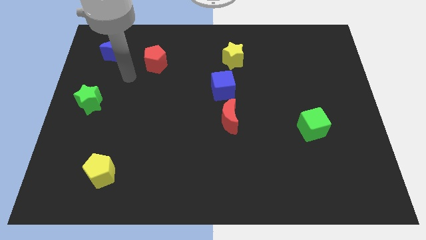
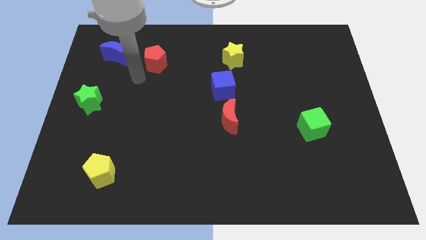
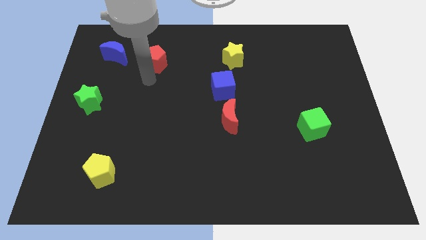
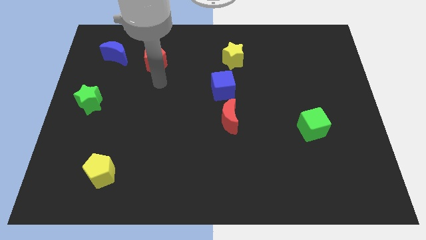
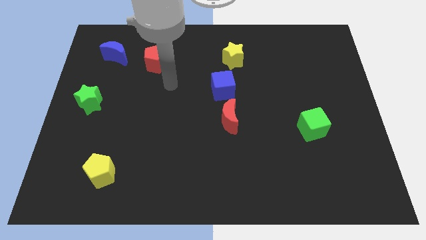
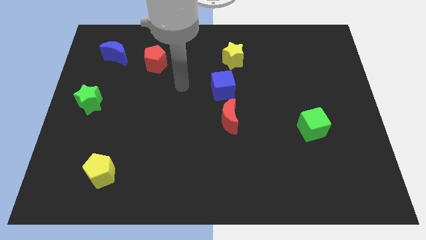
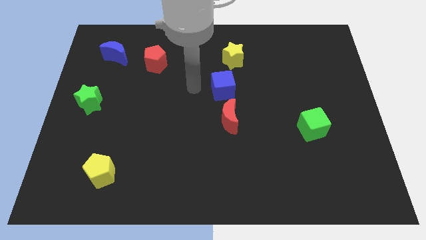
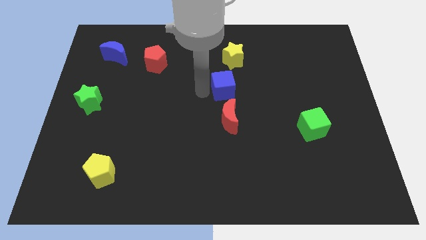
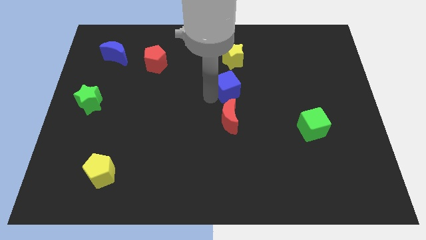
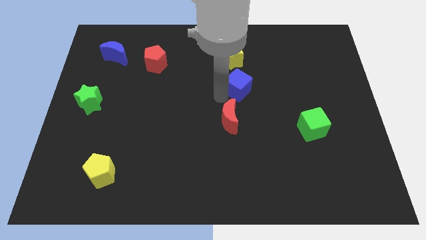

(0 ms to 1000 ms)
pull the red moon apart from the blue cube

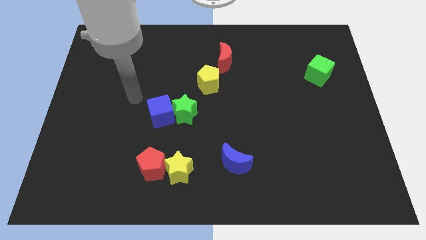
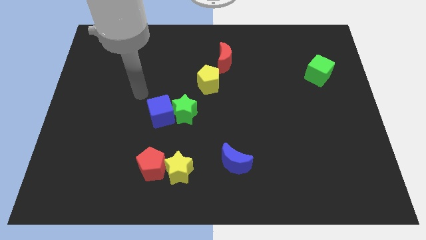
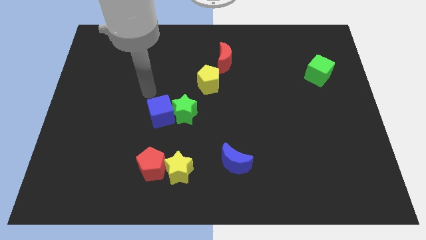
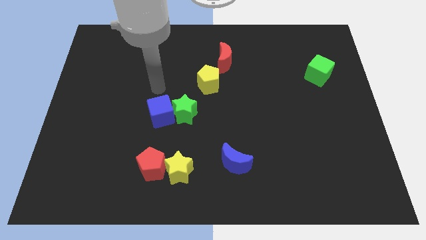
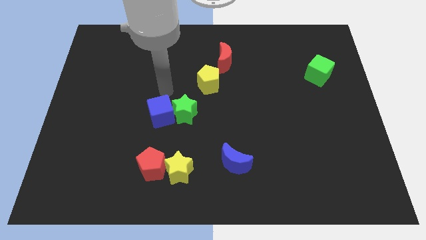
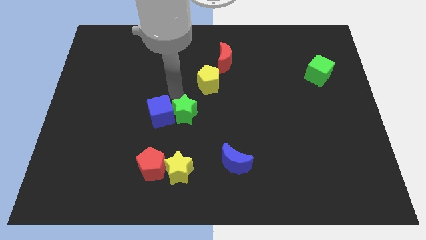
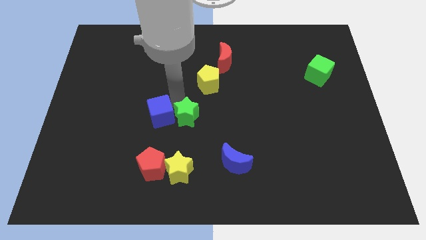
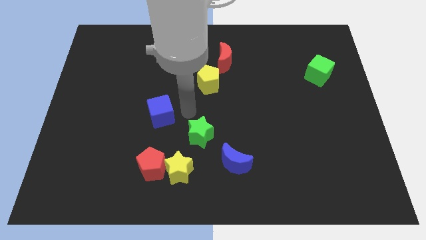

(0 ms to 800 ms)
move the blue cube away from the green star

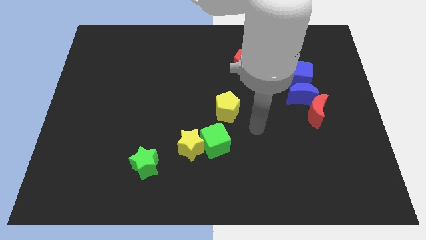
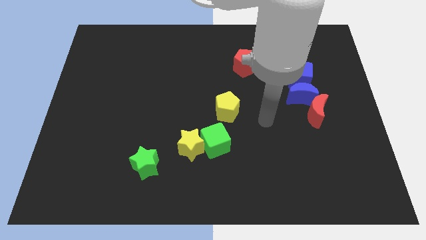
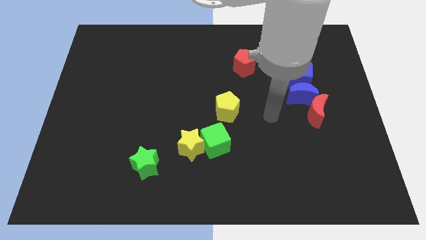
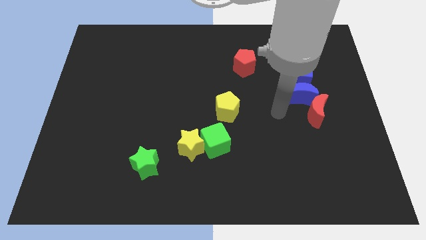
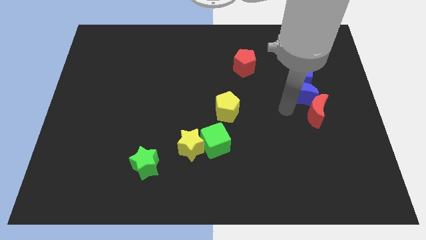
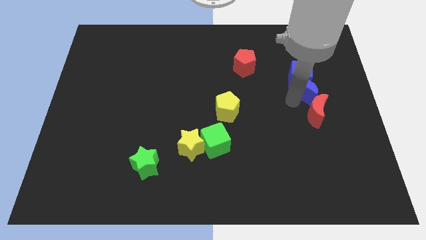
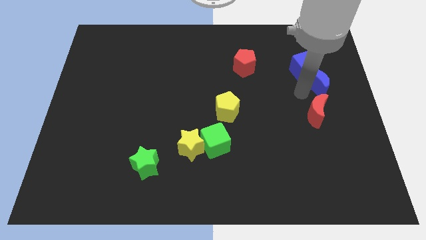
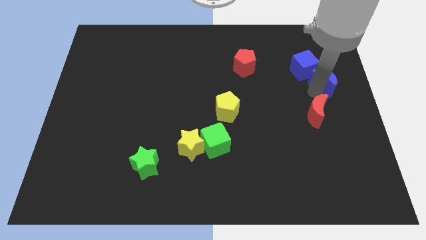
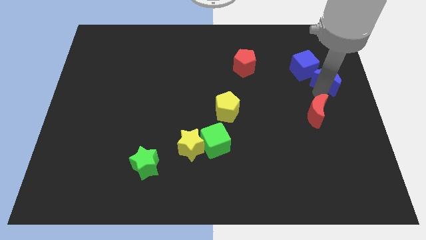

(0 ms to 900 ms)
separate the red moon from the blue moon

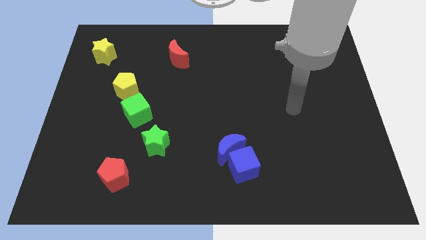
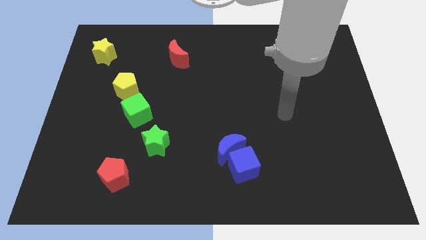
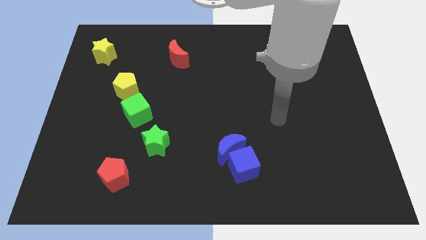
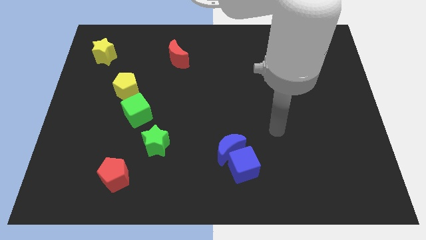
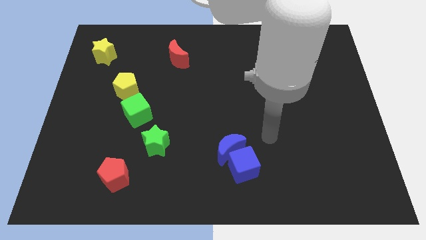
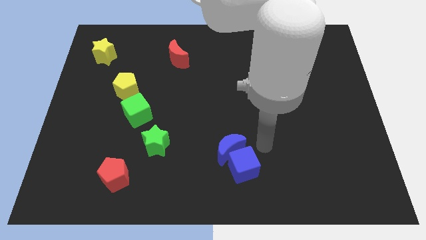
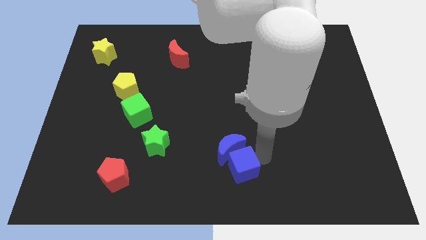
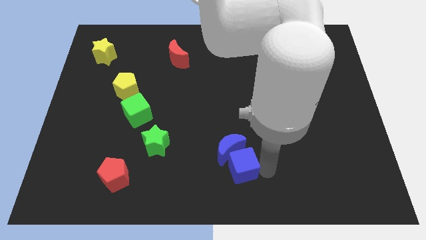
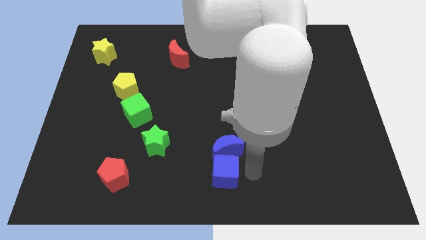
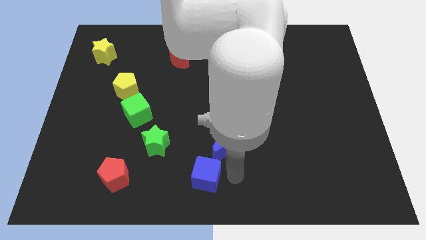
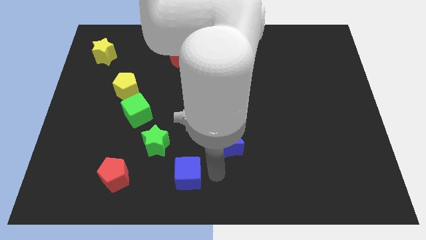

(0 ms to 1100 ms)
pull the blue moon apart from the blue cube

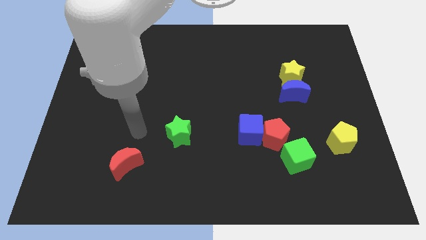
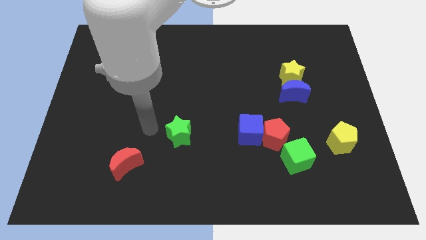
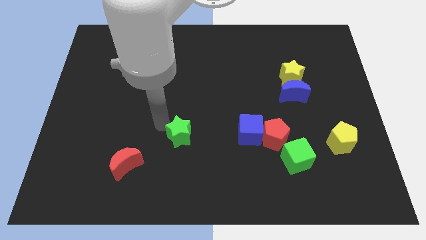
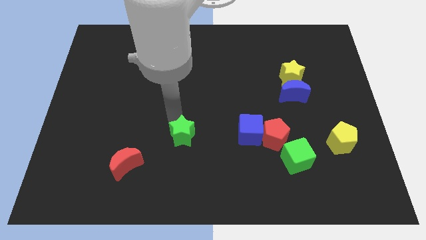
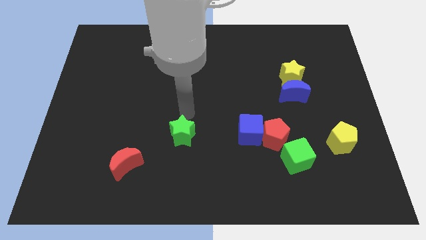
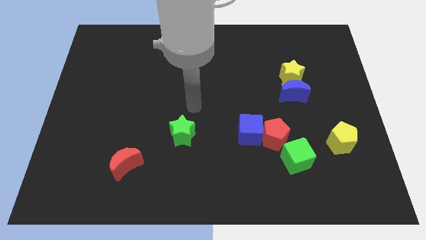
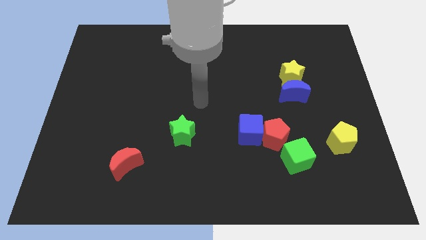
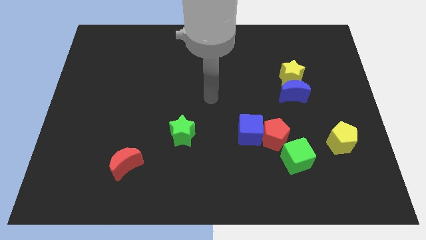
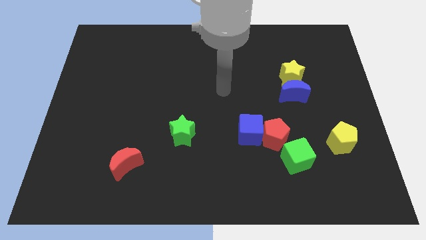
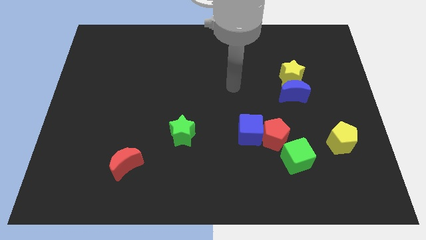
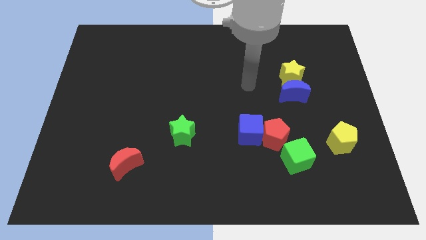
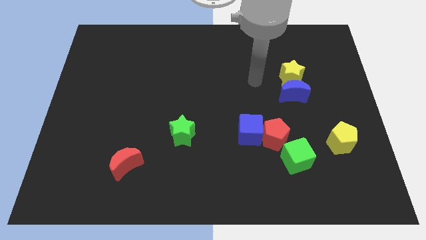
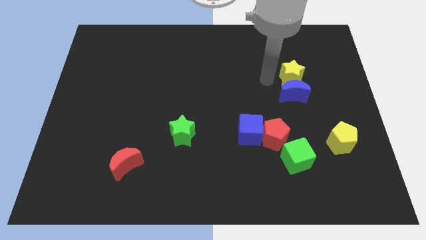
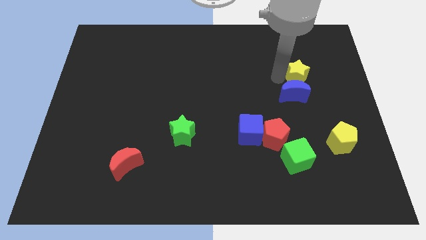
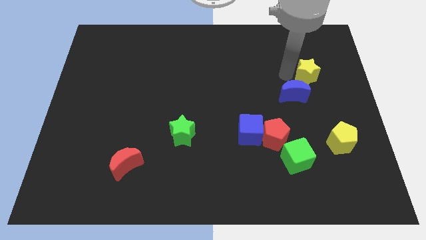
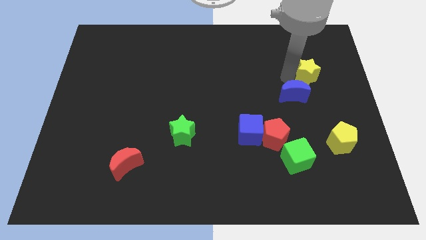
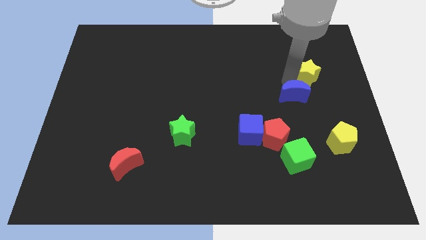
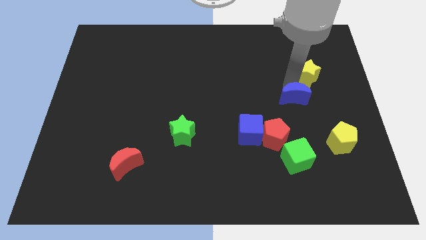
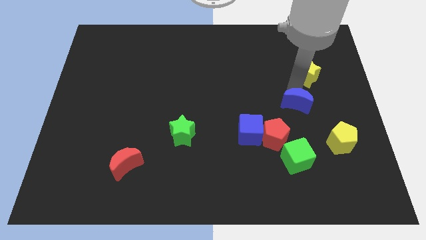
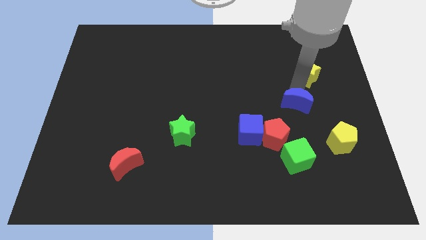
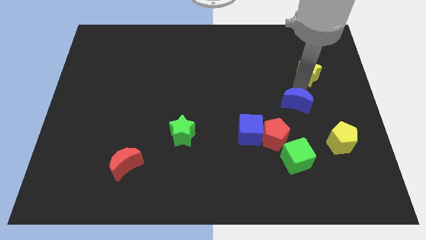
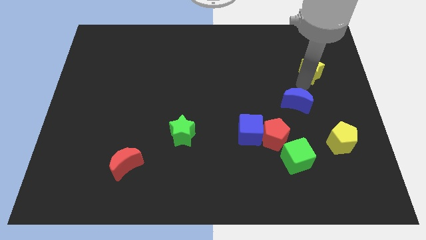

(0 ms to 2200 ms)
separate the blue moon from the yellow star

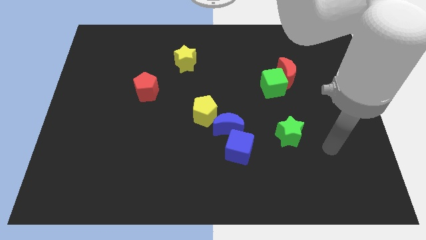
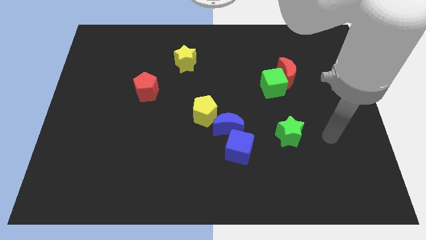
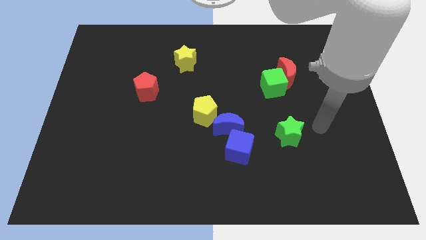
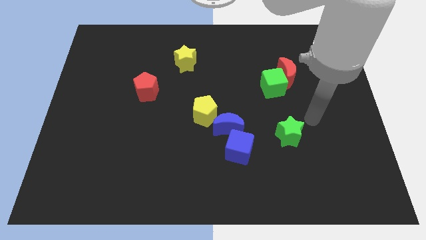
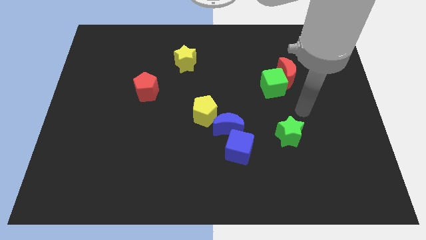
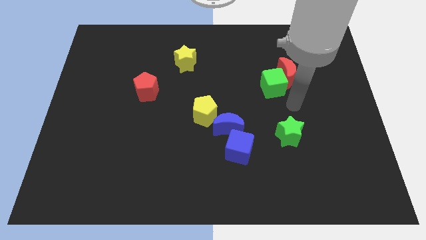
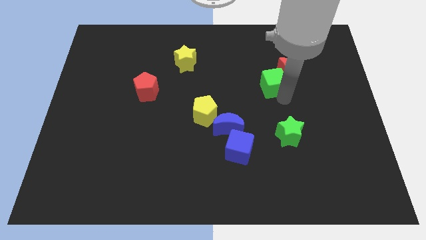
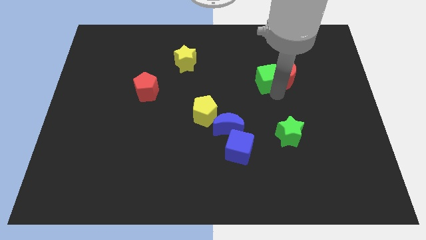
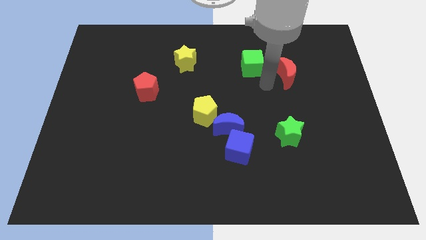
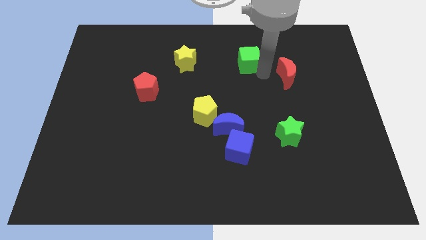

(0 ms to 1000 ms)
separate the red moon from the green cube

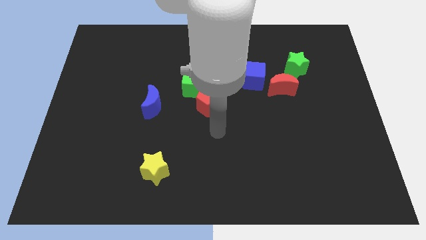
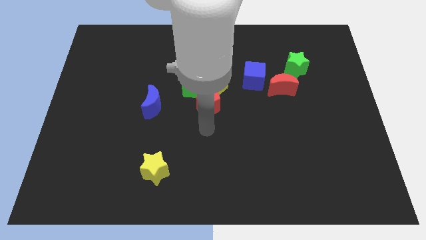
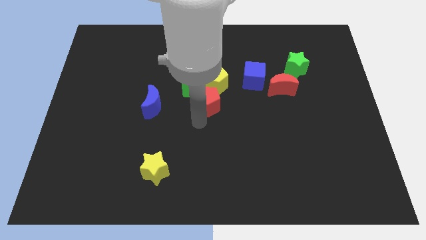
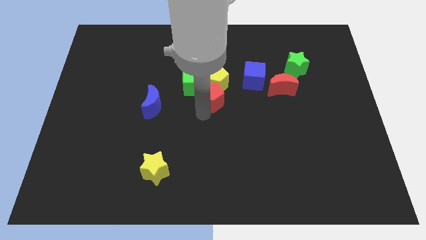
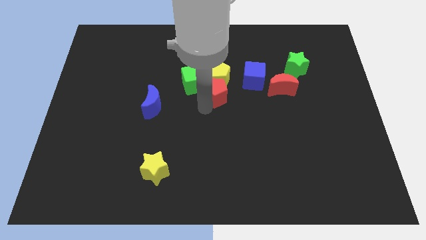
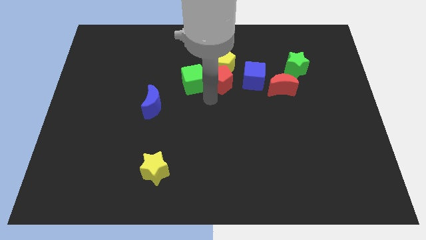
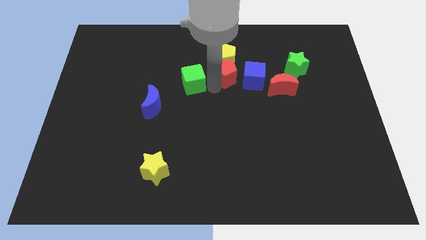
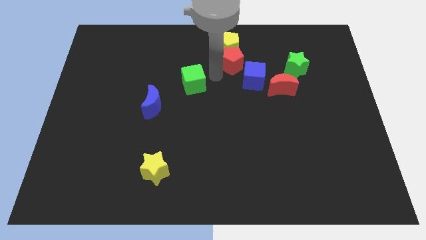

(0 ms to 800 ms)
move the green cube away from the yellow pentagon and red pentagon

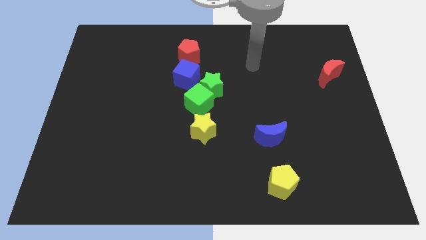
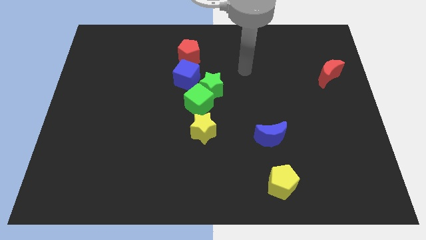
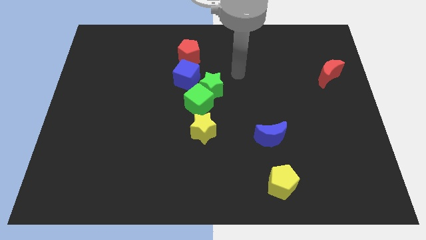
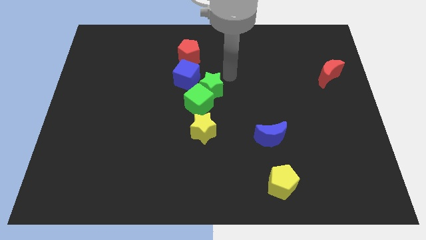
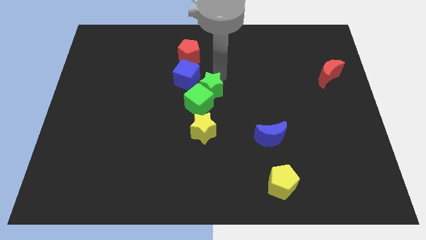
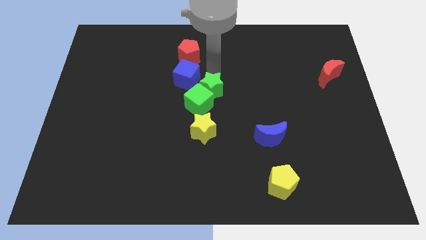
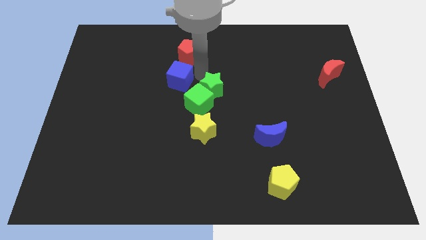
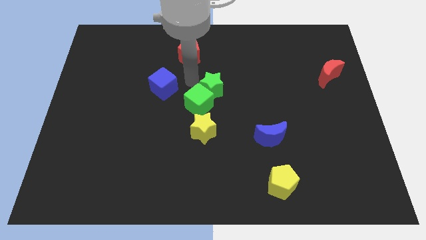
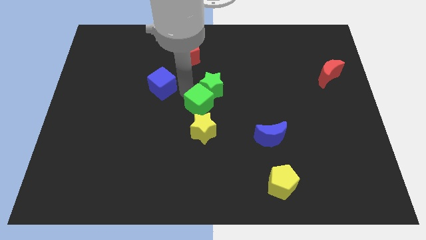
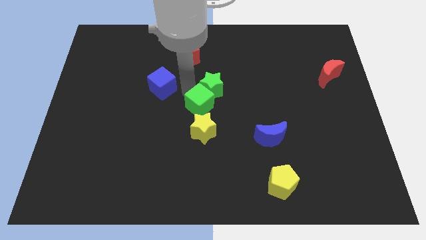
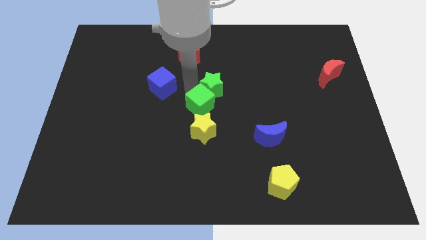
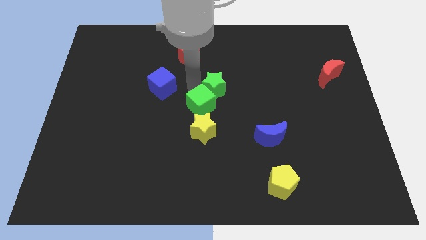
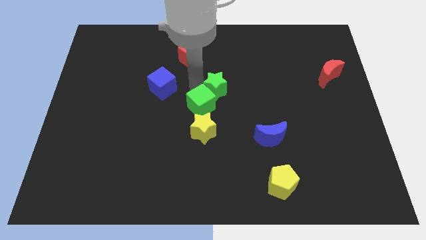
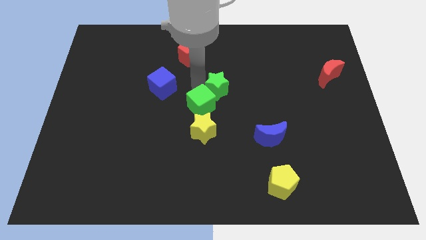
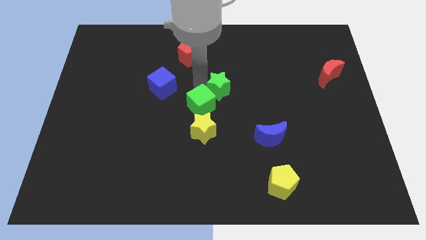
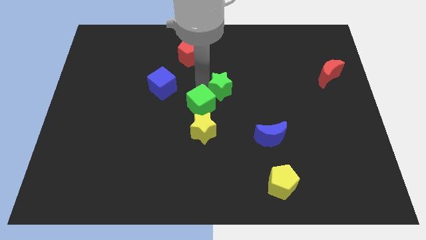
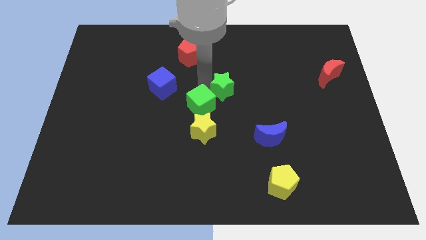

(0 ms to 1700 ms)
move the green star away from the green cube and blue cube
